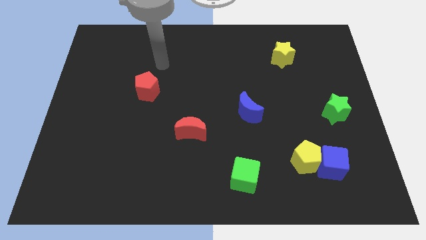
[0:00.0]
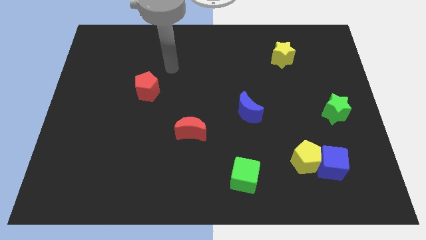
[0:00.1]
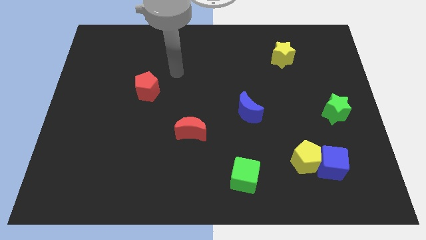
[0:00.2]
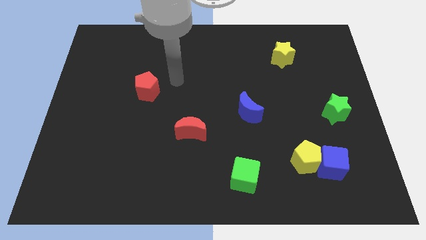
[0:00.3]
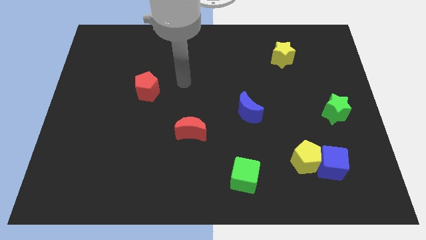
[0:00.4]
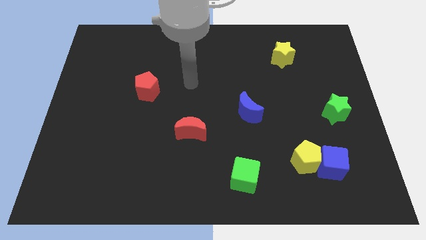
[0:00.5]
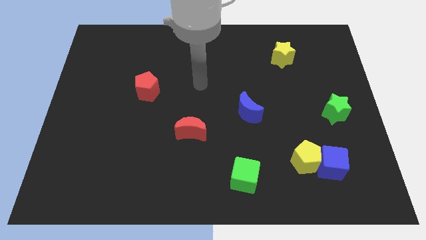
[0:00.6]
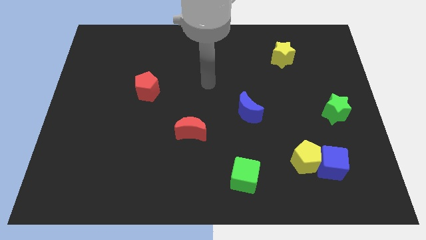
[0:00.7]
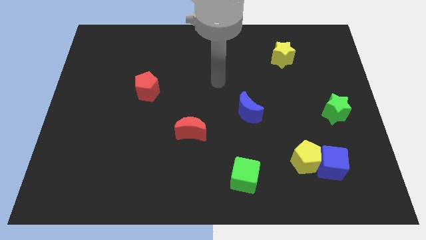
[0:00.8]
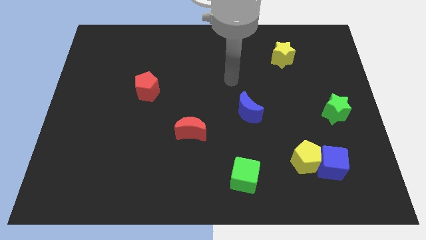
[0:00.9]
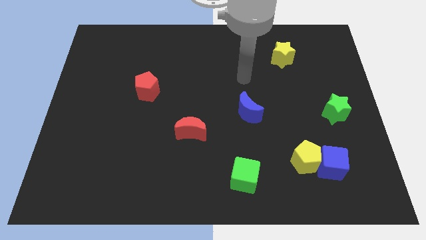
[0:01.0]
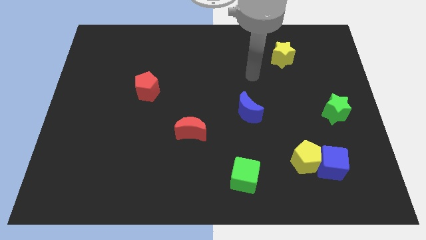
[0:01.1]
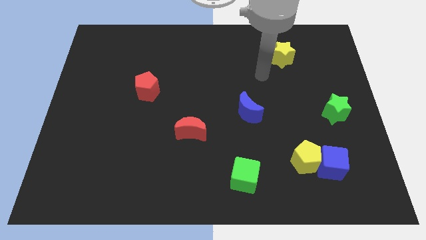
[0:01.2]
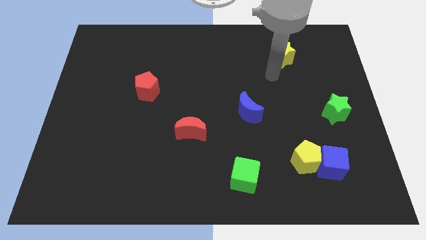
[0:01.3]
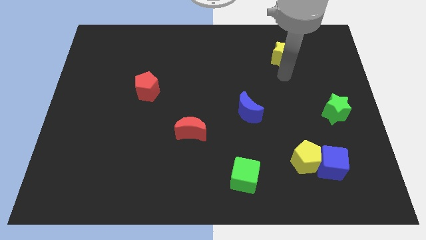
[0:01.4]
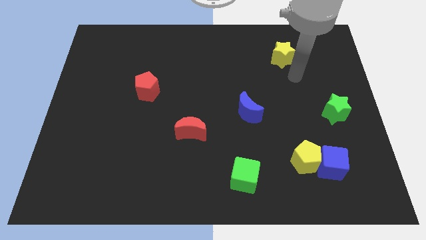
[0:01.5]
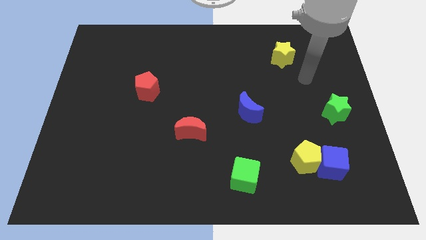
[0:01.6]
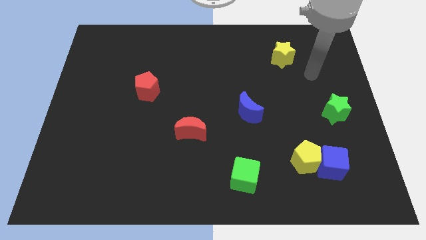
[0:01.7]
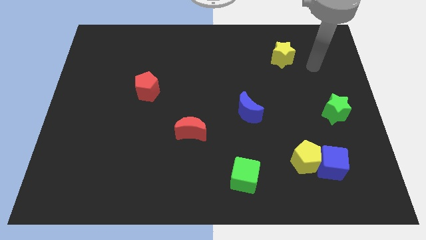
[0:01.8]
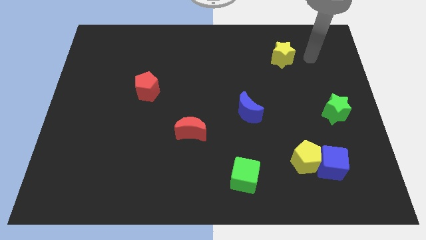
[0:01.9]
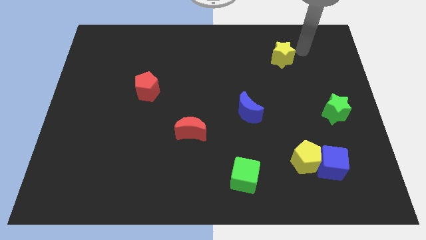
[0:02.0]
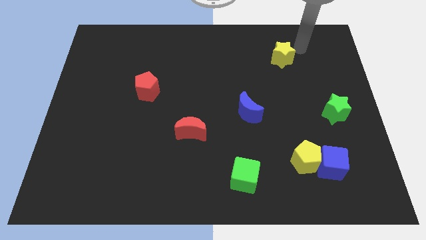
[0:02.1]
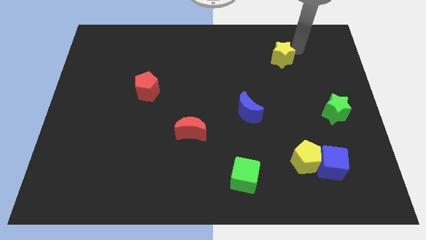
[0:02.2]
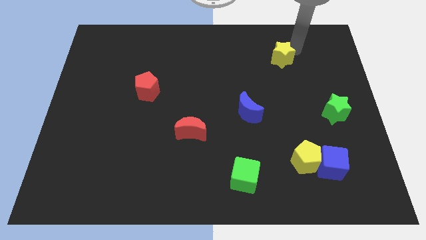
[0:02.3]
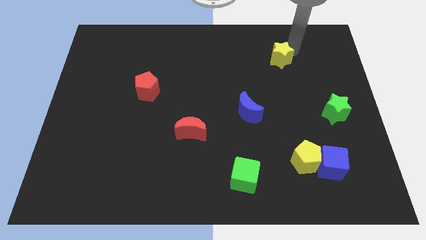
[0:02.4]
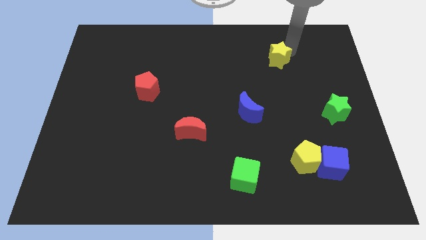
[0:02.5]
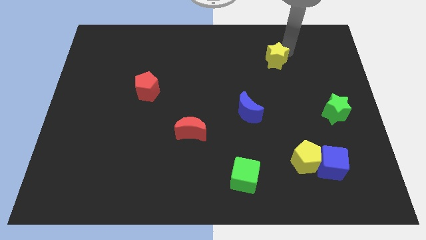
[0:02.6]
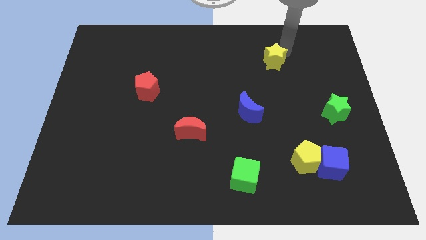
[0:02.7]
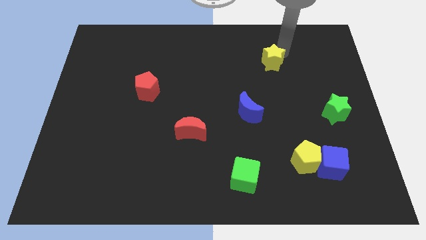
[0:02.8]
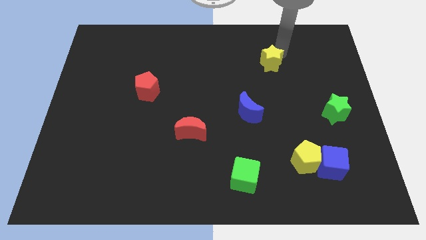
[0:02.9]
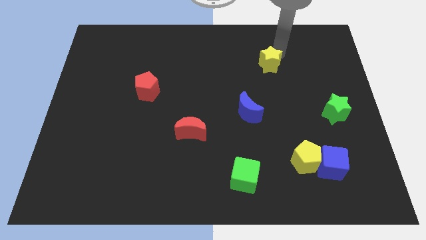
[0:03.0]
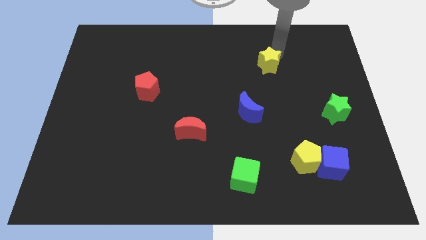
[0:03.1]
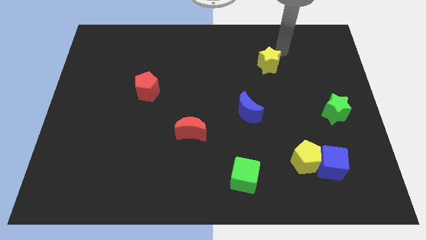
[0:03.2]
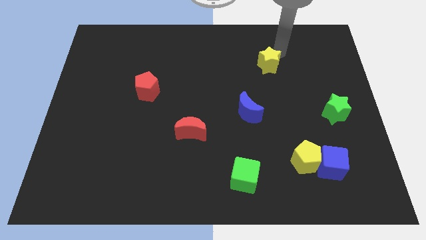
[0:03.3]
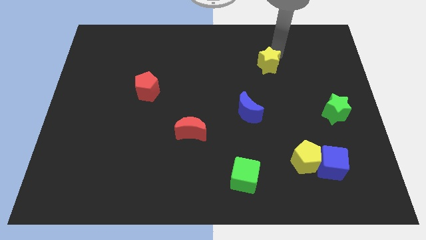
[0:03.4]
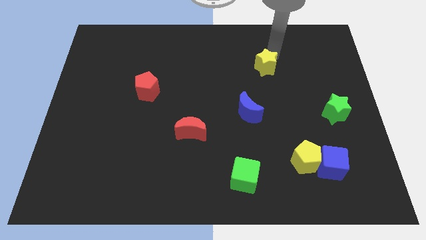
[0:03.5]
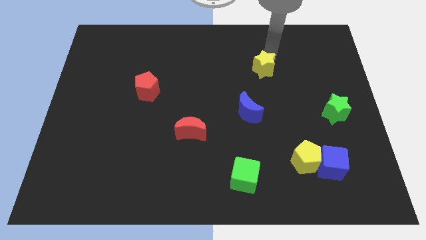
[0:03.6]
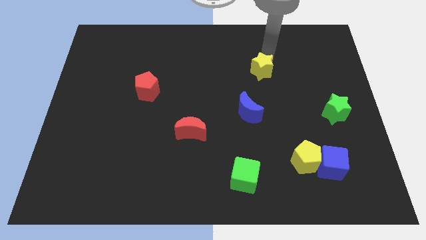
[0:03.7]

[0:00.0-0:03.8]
move the yellow star a bit diagonally downwards and left

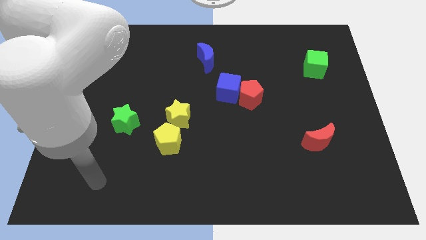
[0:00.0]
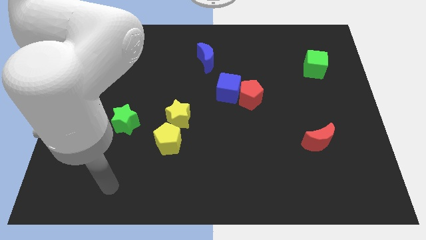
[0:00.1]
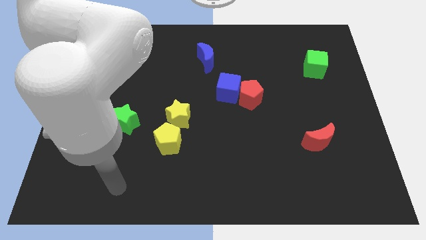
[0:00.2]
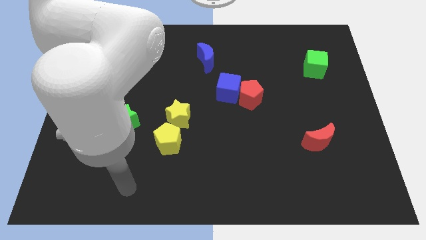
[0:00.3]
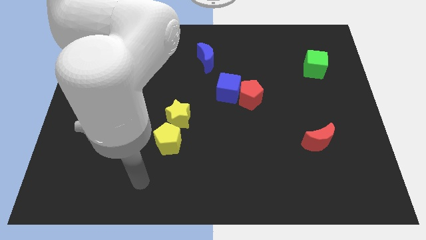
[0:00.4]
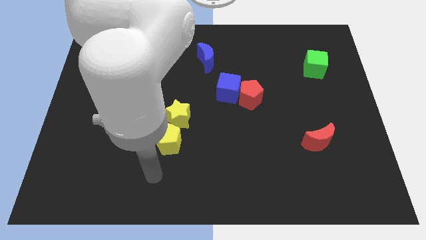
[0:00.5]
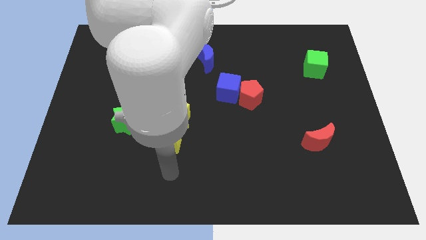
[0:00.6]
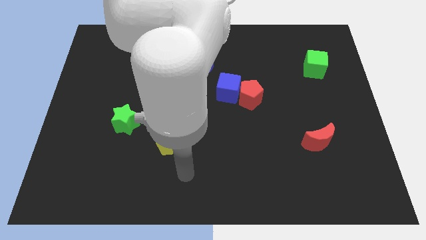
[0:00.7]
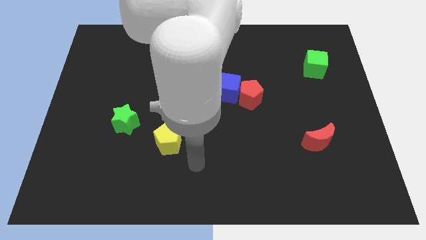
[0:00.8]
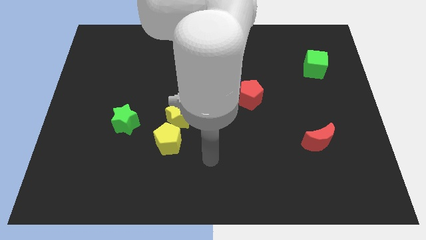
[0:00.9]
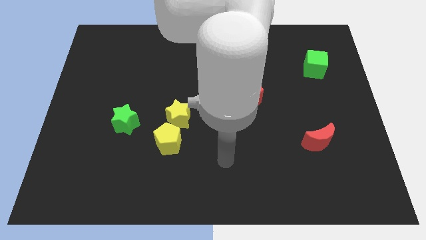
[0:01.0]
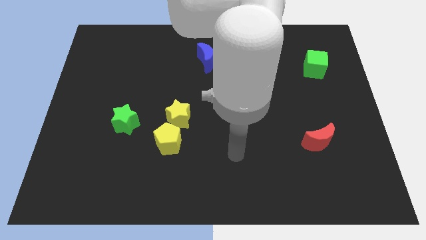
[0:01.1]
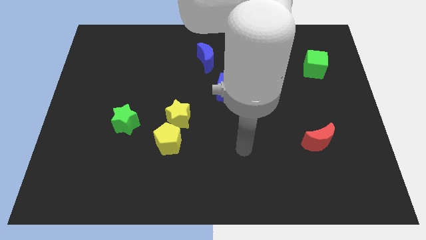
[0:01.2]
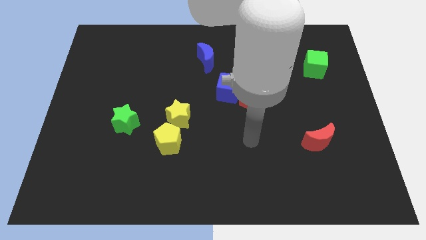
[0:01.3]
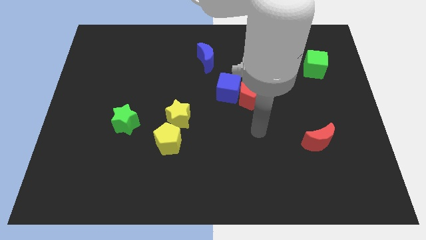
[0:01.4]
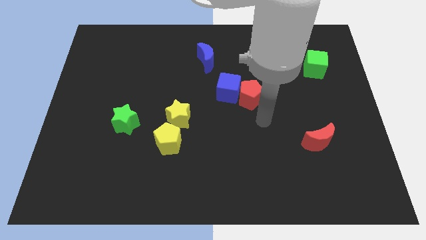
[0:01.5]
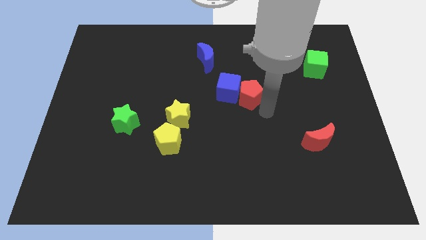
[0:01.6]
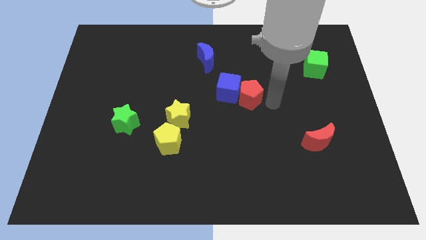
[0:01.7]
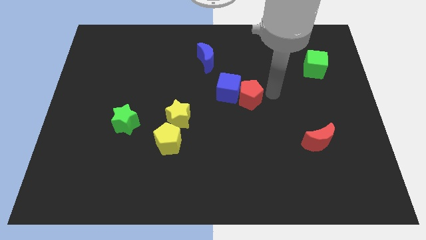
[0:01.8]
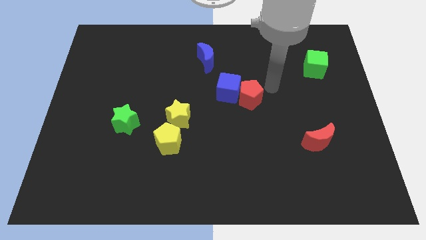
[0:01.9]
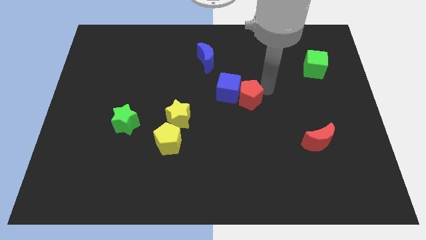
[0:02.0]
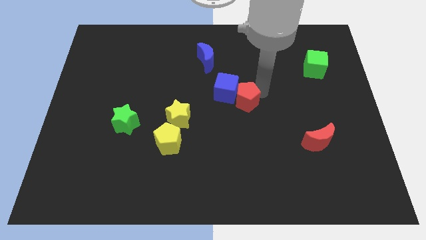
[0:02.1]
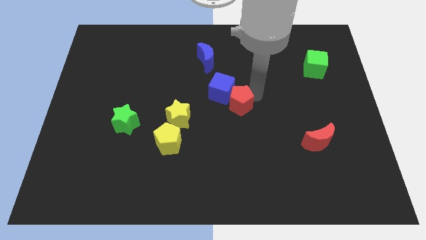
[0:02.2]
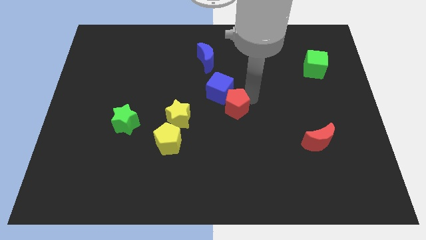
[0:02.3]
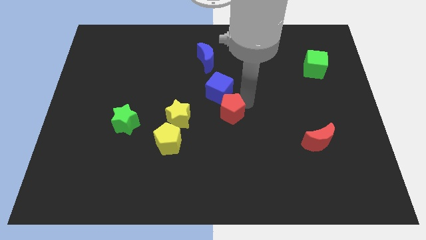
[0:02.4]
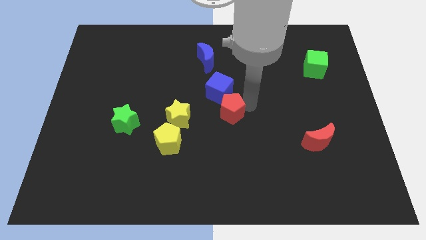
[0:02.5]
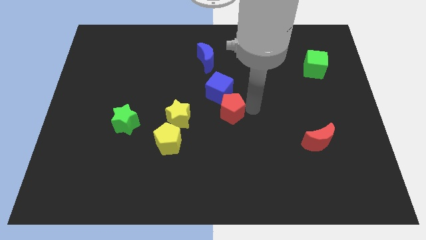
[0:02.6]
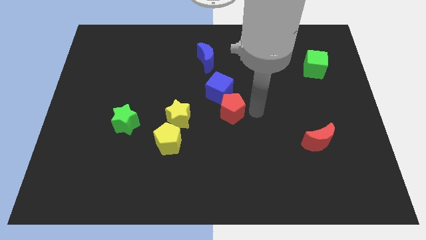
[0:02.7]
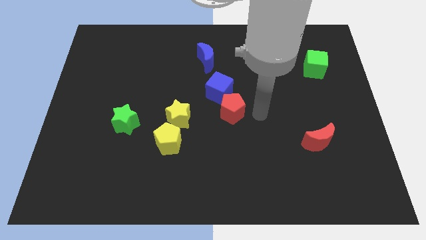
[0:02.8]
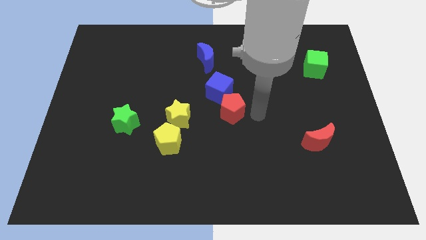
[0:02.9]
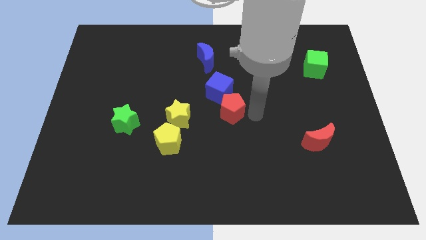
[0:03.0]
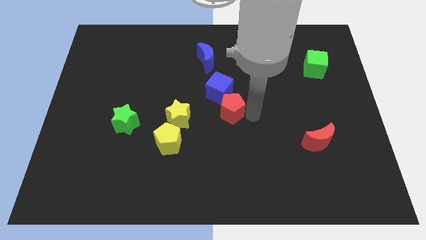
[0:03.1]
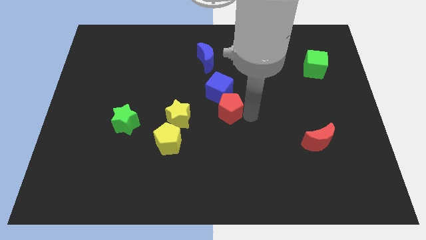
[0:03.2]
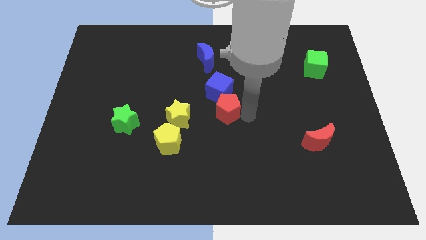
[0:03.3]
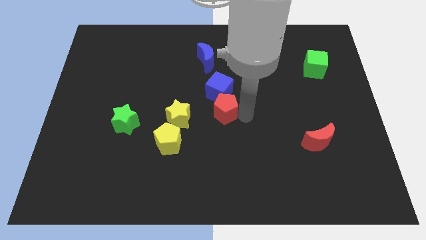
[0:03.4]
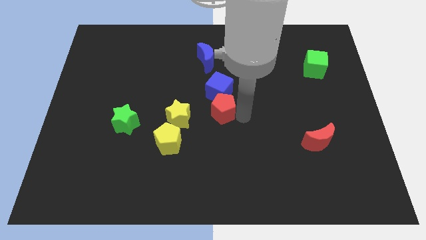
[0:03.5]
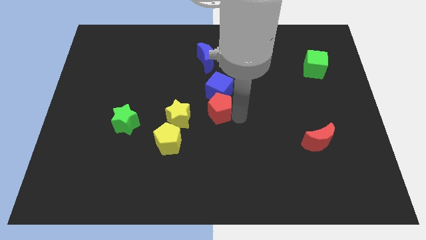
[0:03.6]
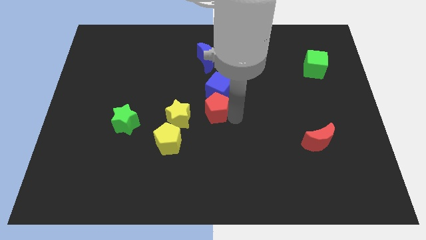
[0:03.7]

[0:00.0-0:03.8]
slightly move the red pentagon left

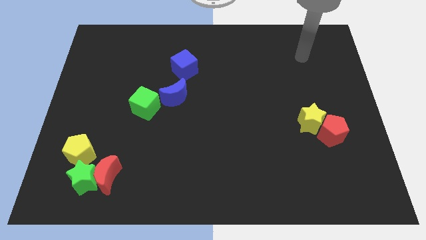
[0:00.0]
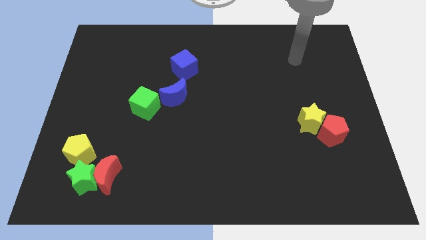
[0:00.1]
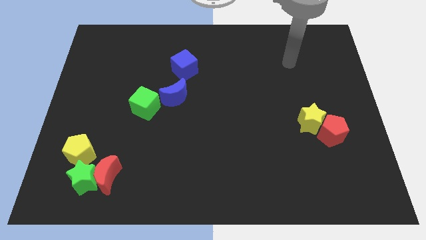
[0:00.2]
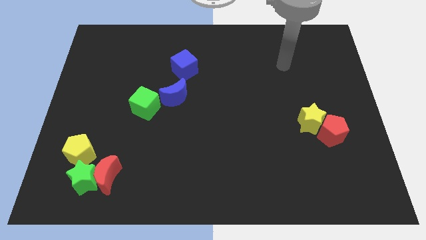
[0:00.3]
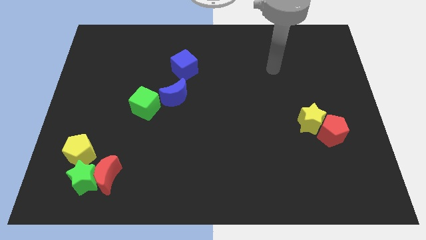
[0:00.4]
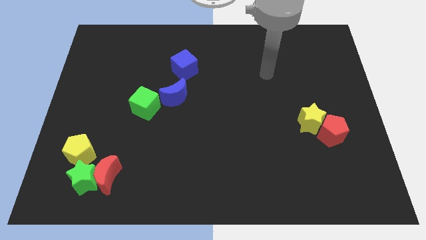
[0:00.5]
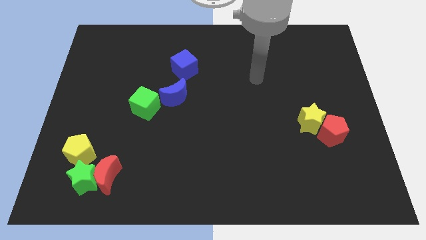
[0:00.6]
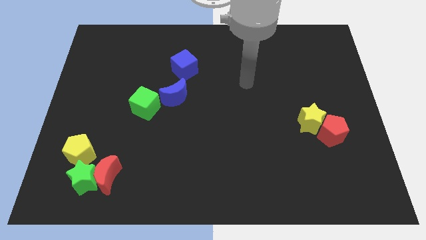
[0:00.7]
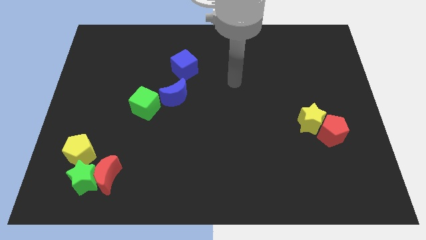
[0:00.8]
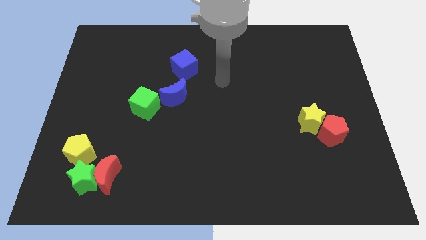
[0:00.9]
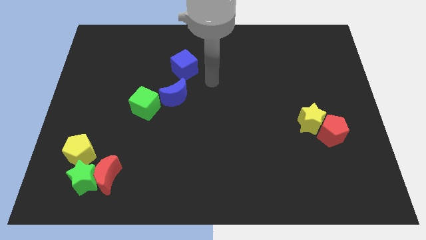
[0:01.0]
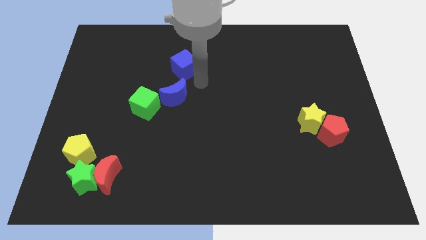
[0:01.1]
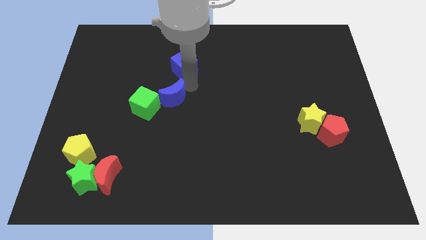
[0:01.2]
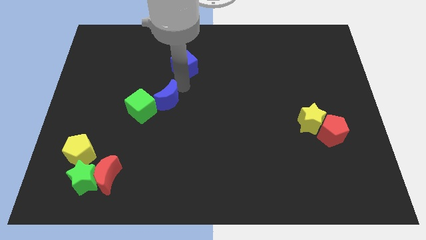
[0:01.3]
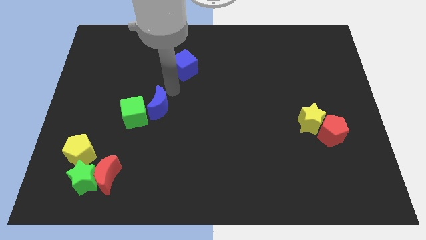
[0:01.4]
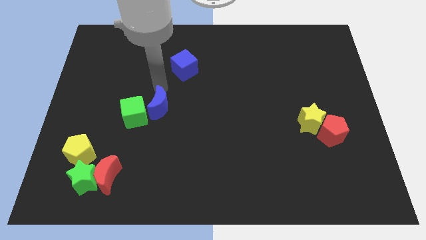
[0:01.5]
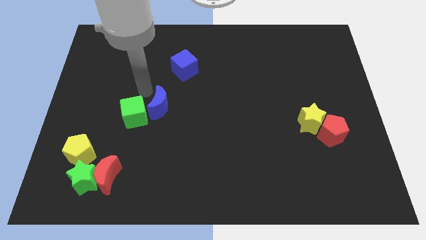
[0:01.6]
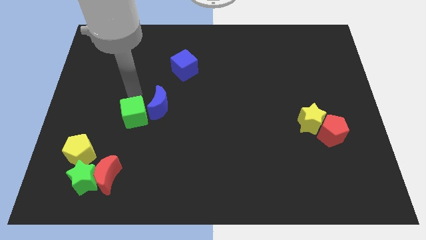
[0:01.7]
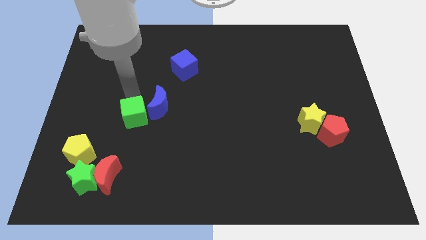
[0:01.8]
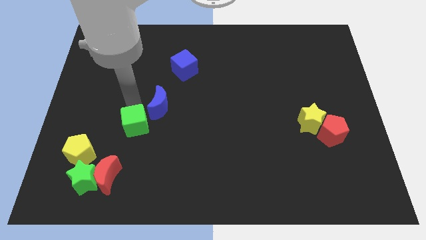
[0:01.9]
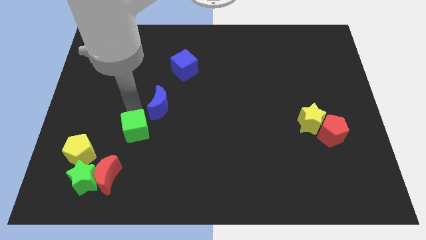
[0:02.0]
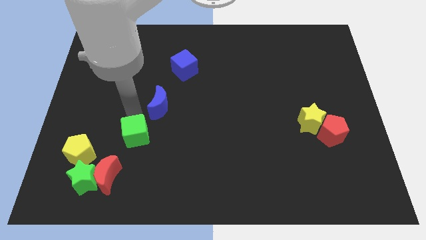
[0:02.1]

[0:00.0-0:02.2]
slightly push the green cube down
